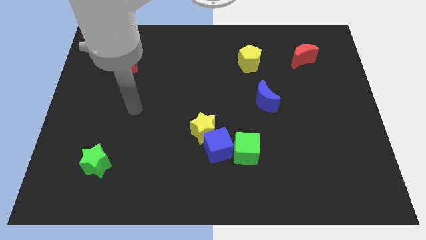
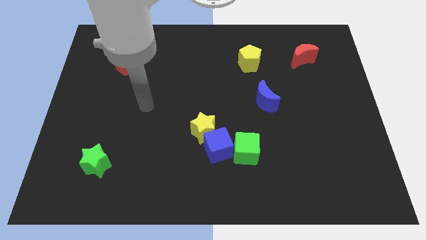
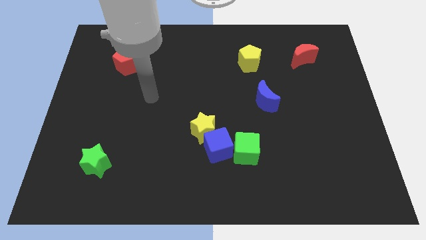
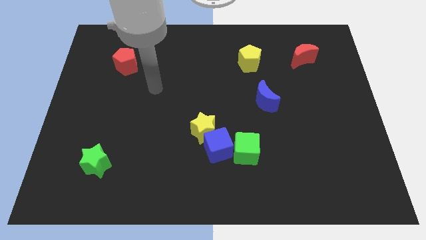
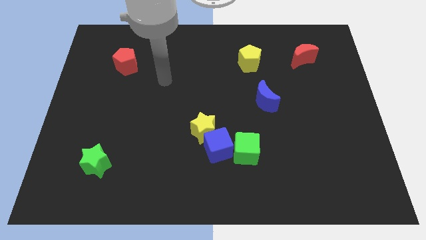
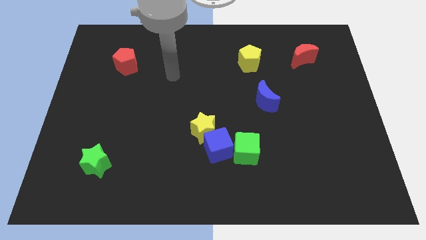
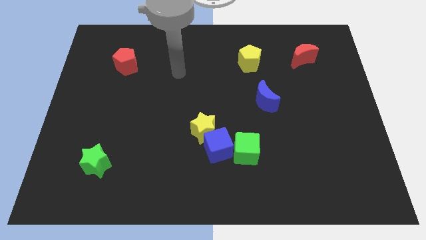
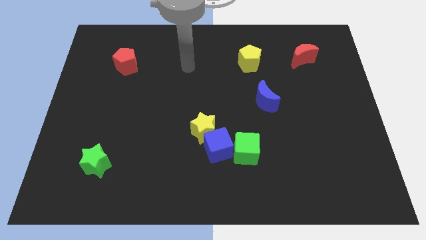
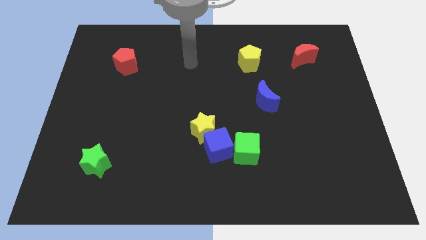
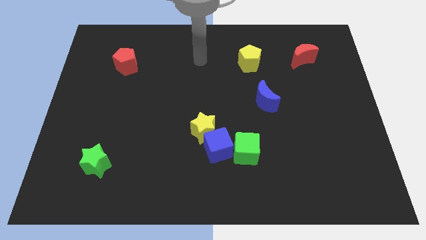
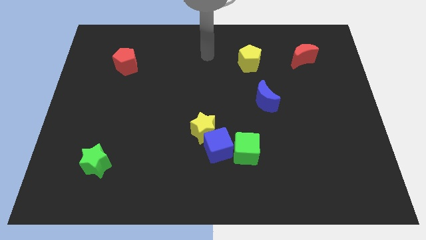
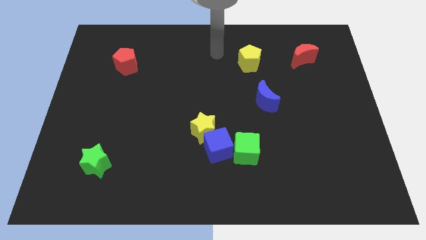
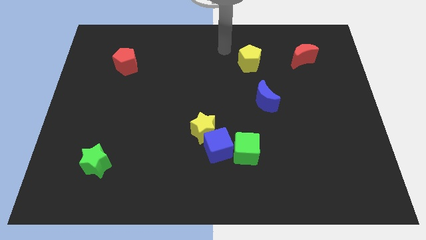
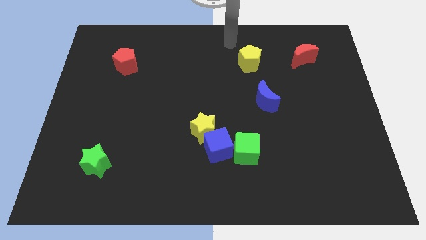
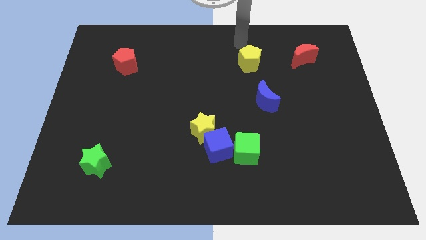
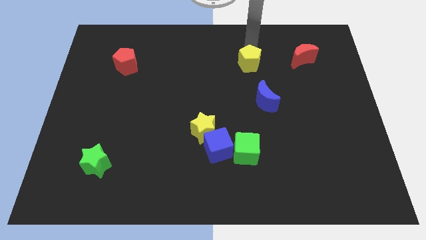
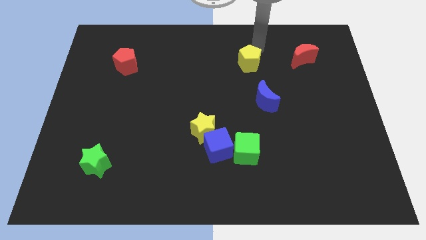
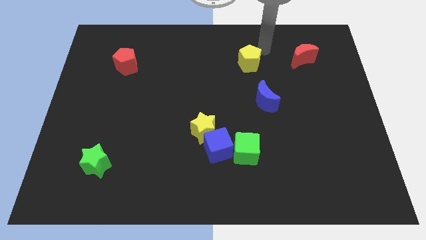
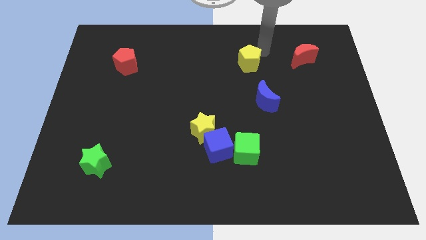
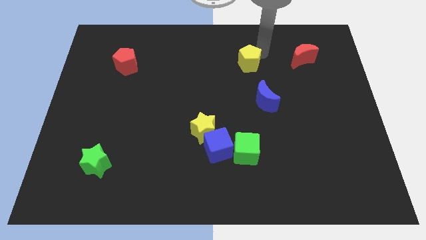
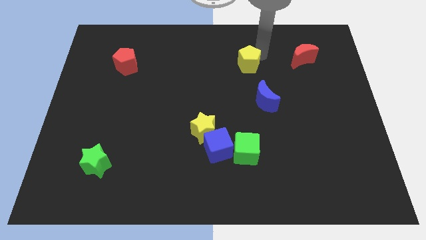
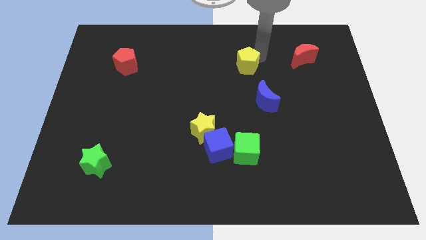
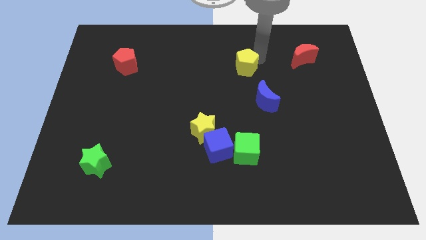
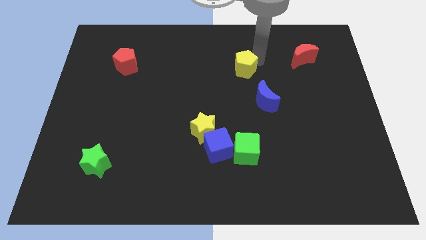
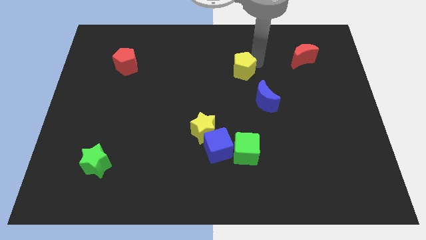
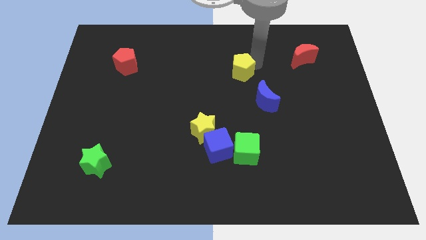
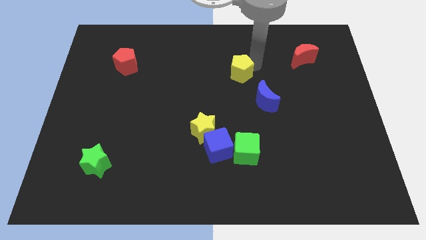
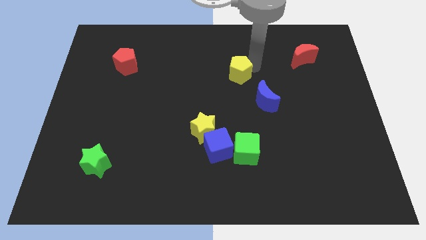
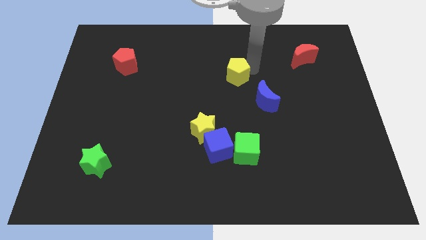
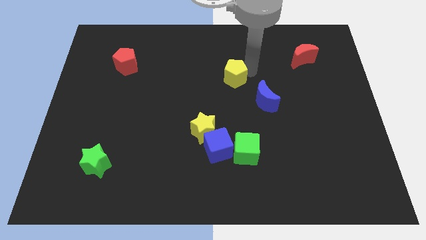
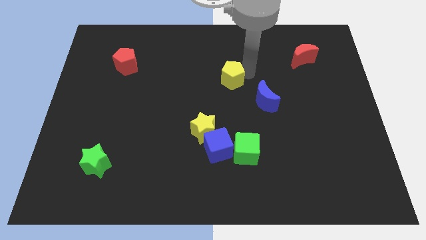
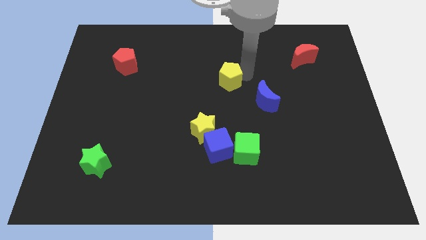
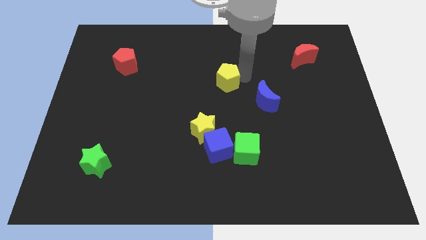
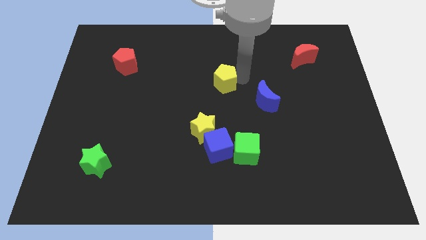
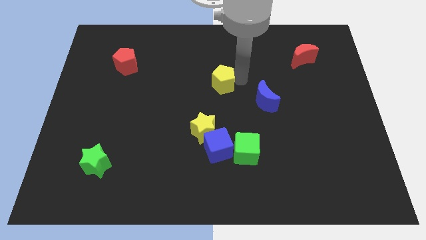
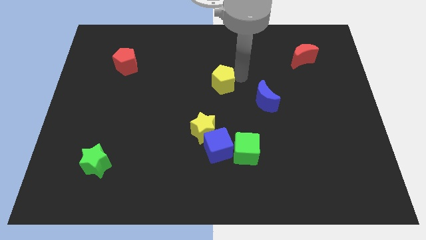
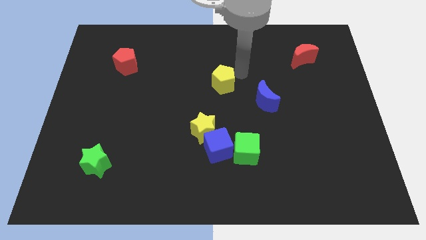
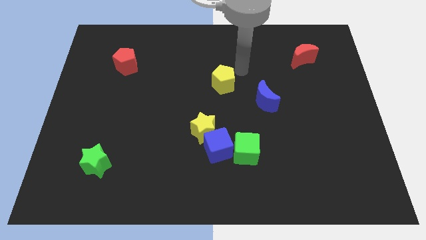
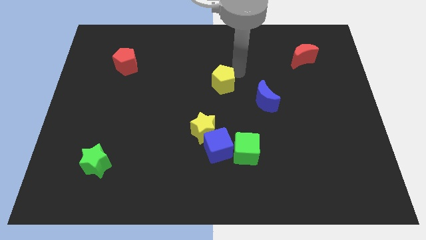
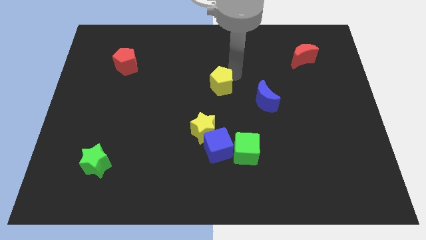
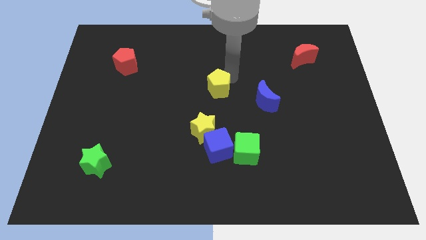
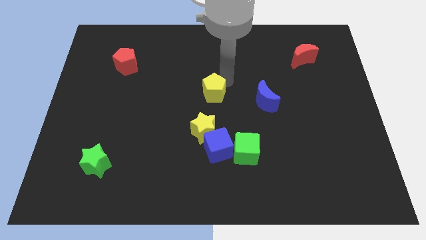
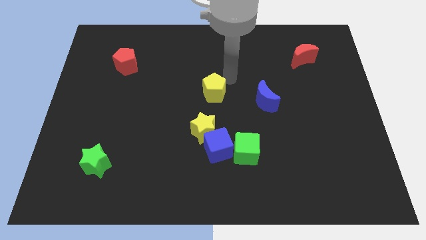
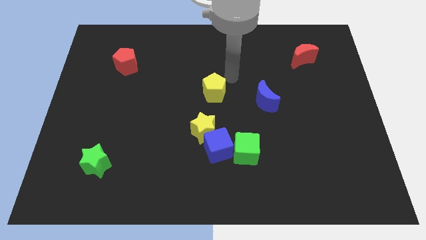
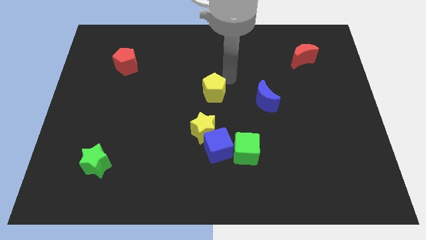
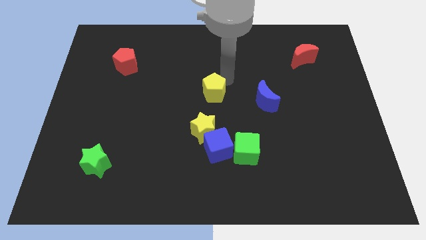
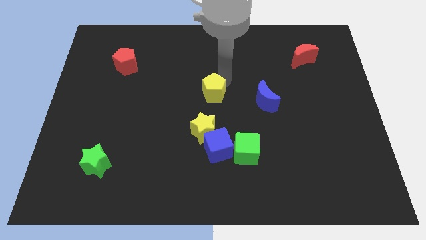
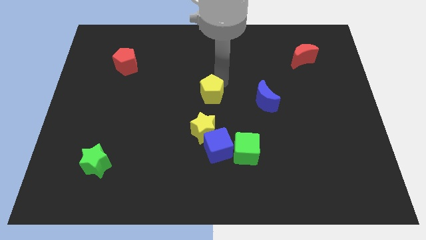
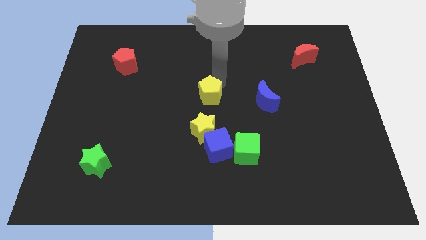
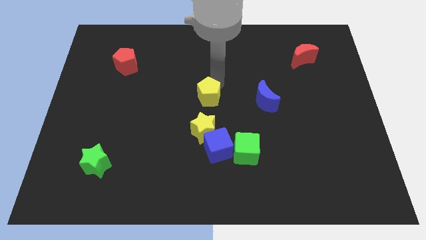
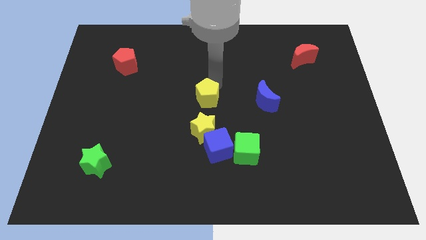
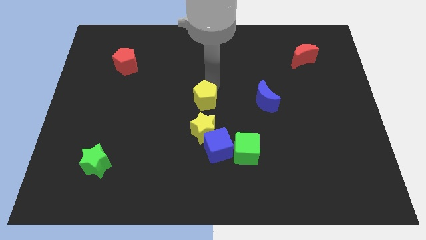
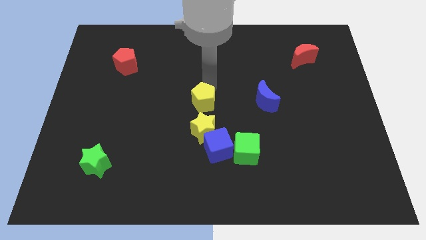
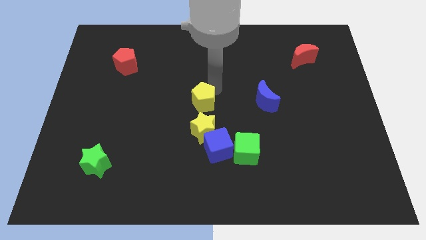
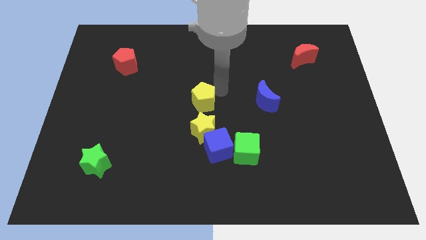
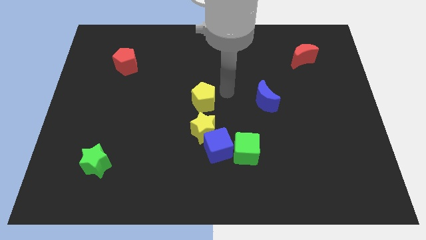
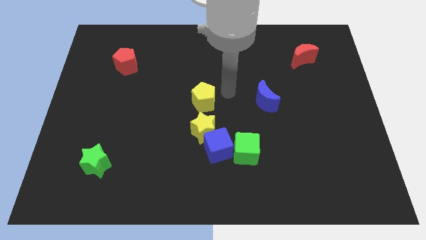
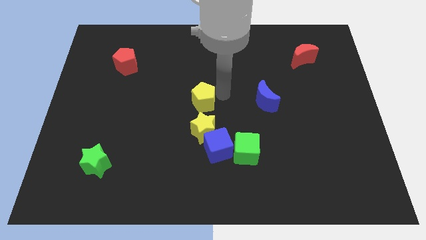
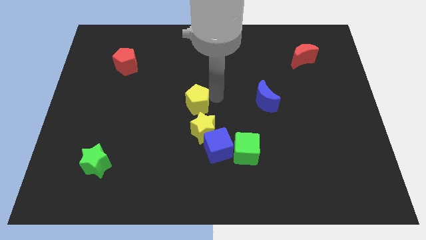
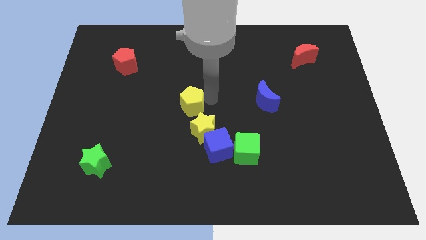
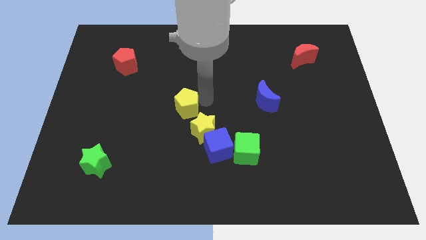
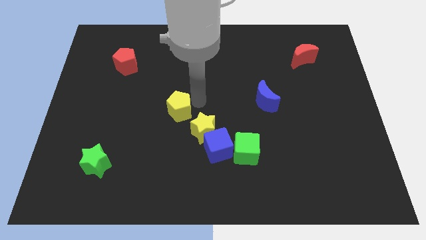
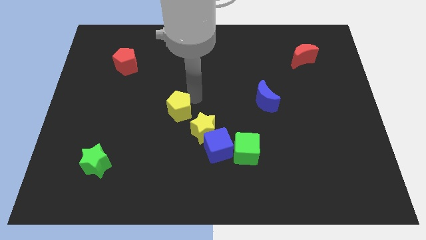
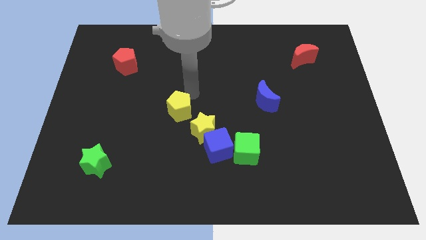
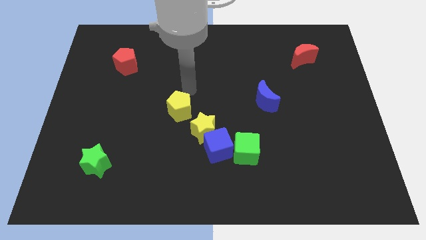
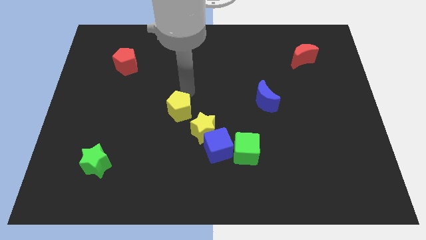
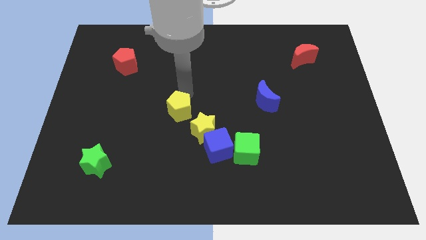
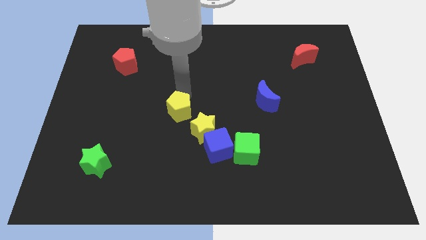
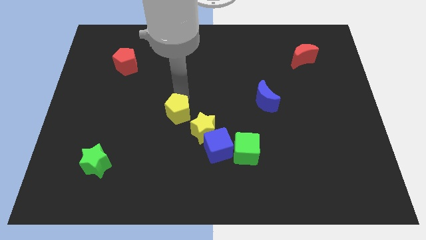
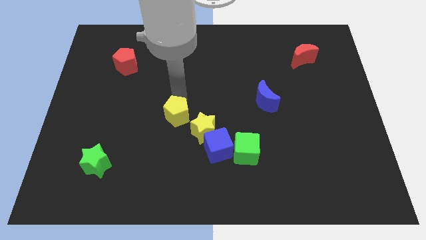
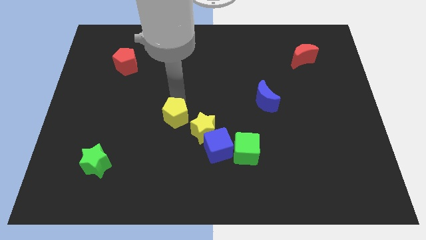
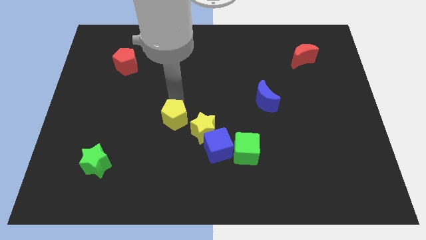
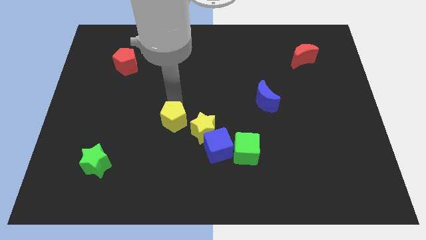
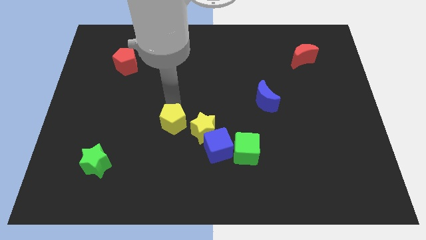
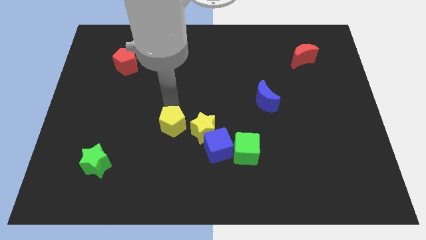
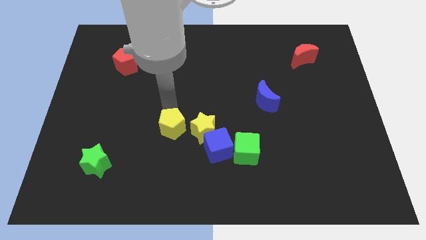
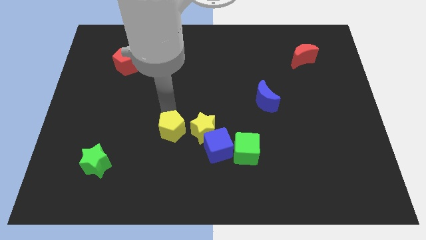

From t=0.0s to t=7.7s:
put the yellow pentagon to the left side of the blue cube
